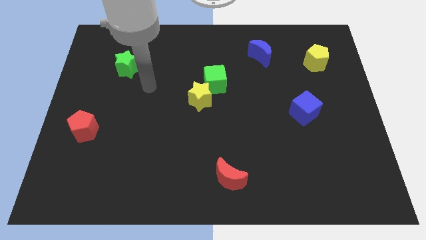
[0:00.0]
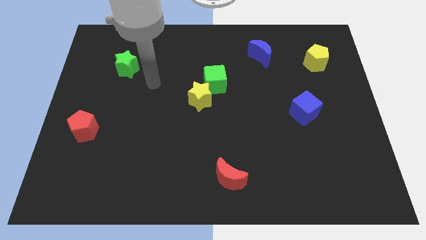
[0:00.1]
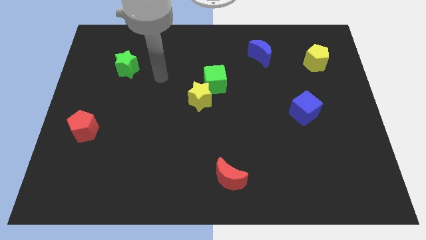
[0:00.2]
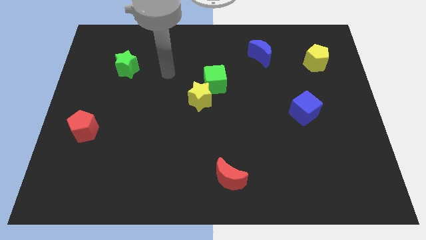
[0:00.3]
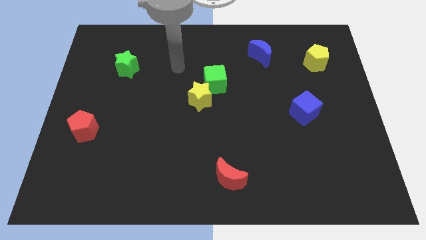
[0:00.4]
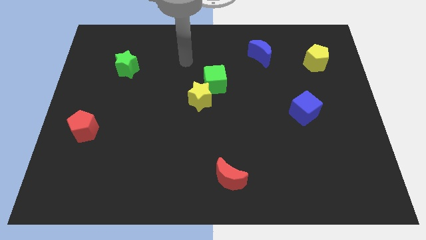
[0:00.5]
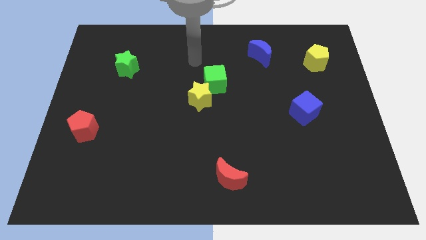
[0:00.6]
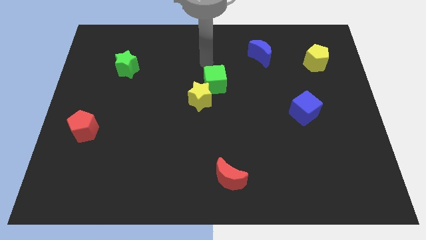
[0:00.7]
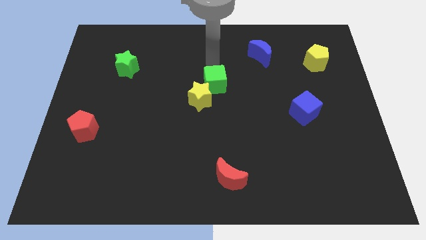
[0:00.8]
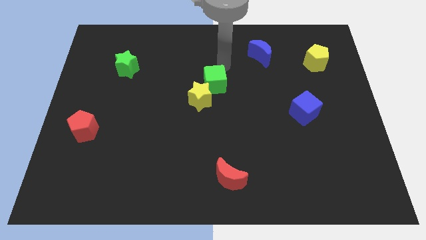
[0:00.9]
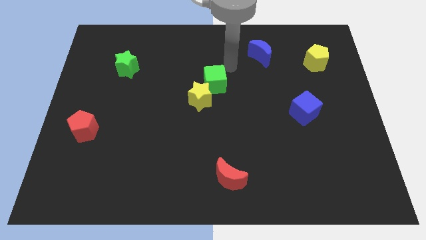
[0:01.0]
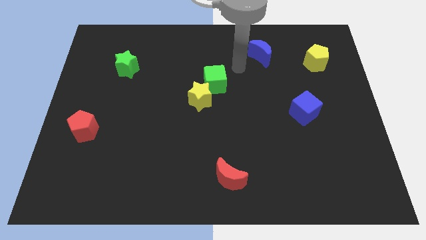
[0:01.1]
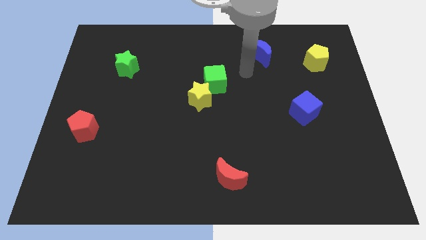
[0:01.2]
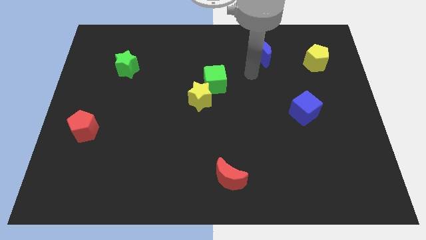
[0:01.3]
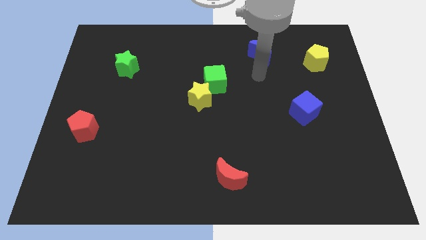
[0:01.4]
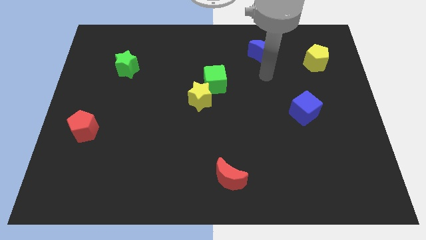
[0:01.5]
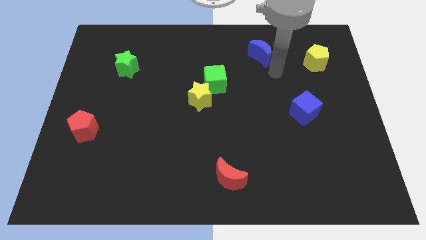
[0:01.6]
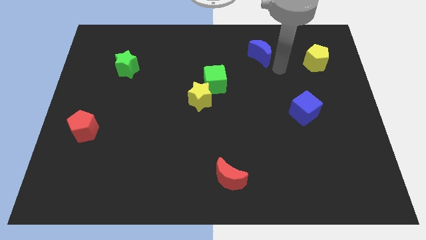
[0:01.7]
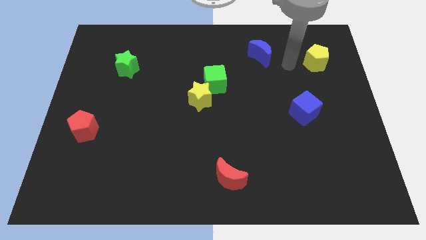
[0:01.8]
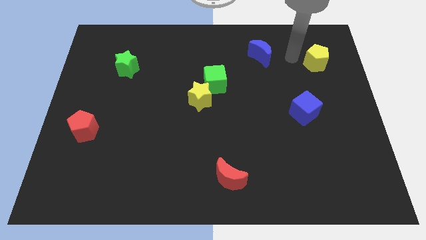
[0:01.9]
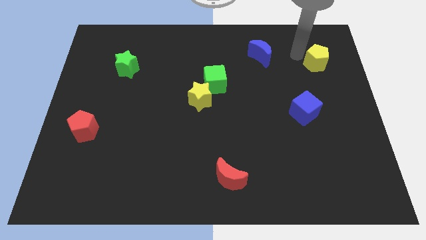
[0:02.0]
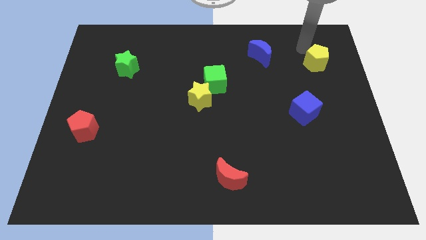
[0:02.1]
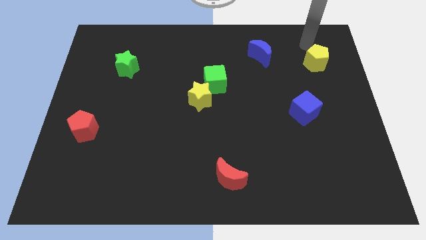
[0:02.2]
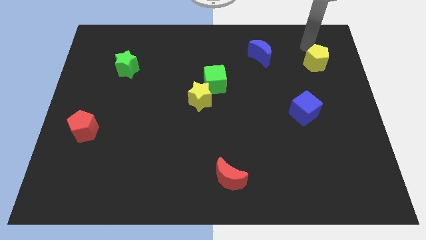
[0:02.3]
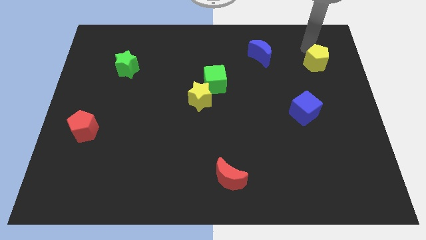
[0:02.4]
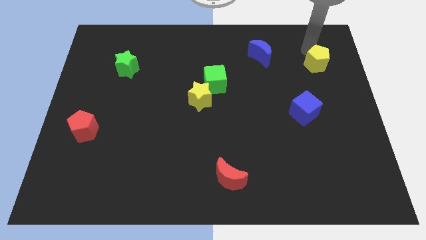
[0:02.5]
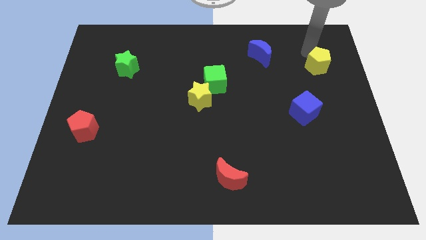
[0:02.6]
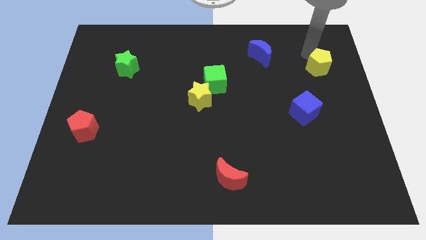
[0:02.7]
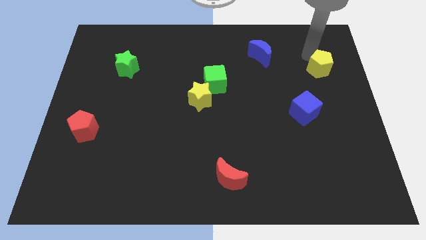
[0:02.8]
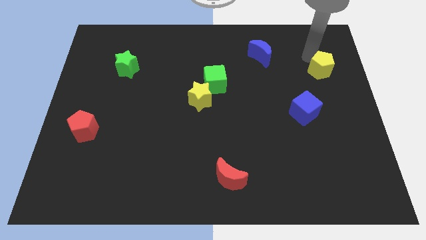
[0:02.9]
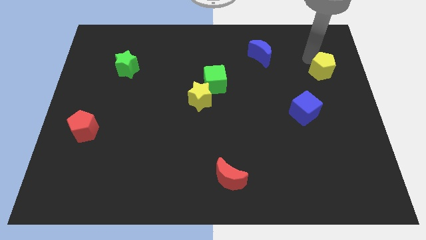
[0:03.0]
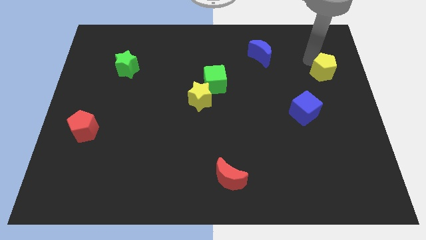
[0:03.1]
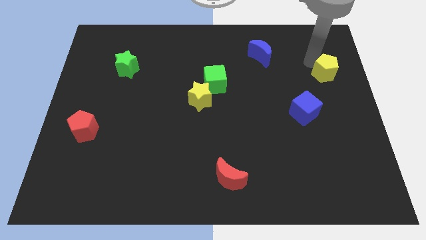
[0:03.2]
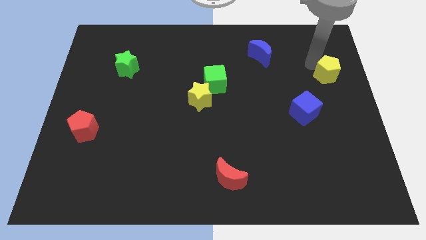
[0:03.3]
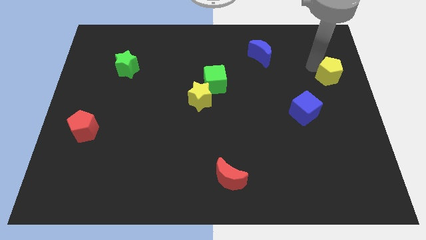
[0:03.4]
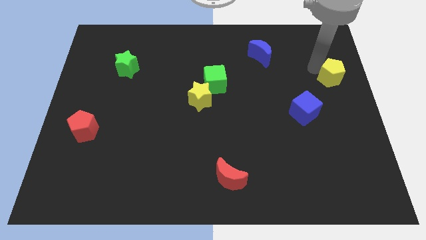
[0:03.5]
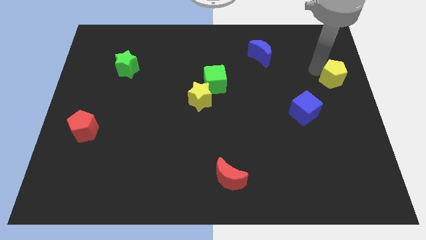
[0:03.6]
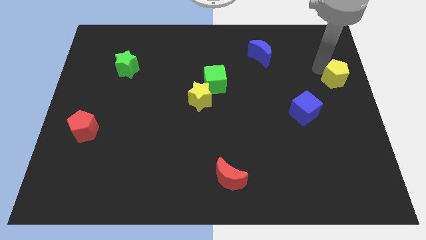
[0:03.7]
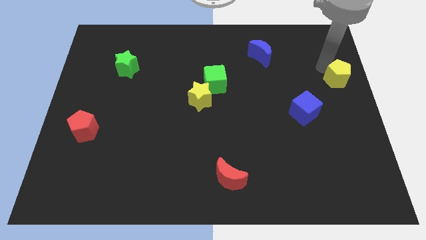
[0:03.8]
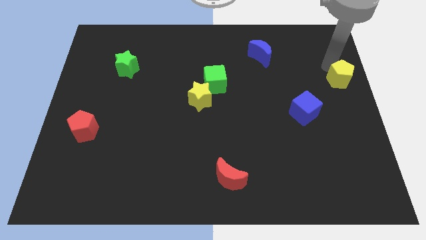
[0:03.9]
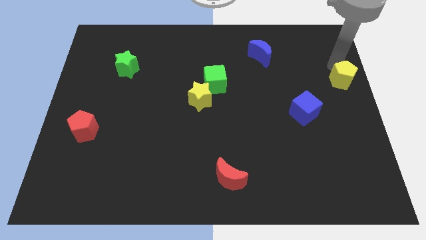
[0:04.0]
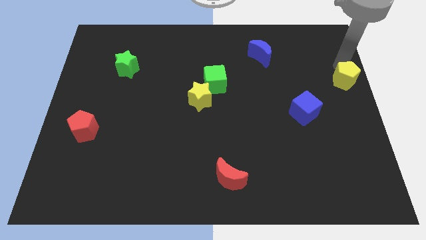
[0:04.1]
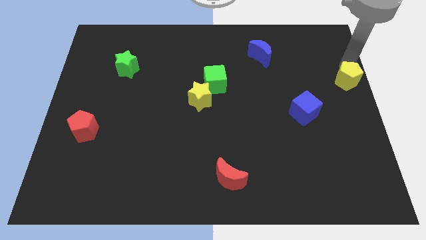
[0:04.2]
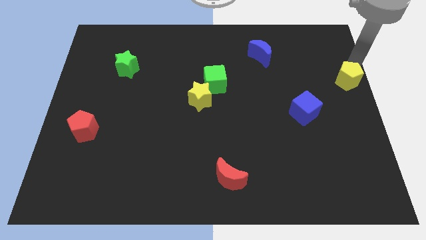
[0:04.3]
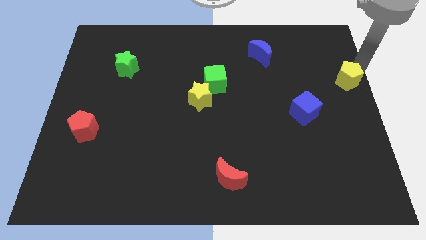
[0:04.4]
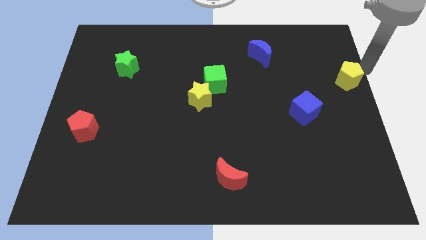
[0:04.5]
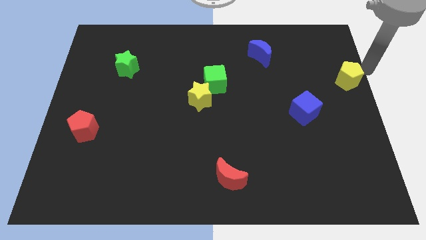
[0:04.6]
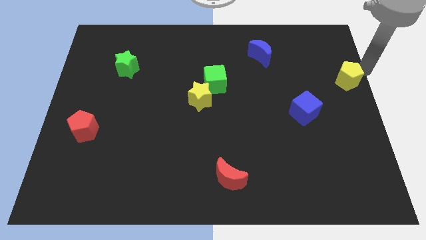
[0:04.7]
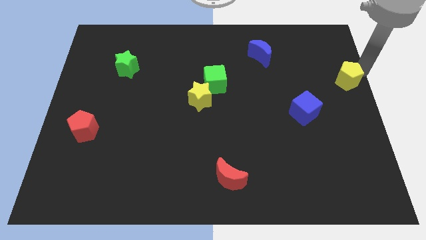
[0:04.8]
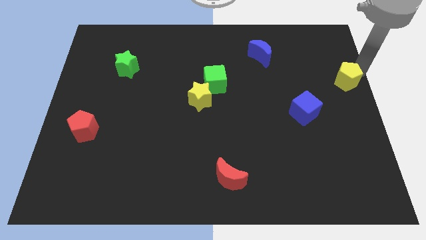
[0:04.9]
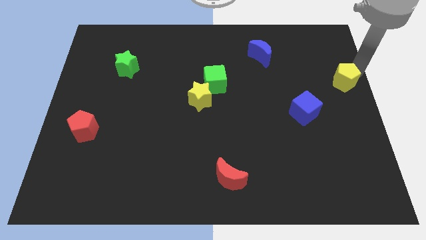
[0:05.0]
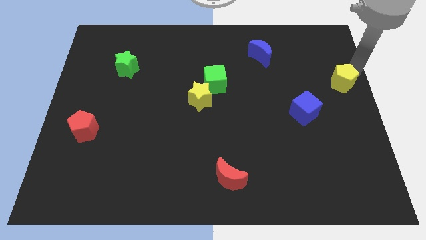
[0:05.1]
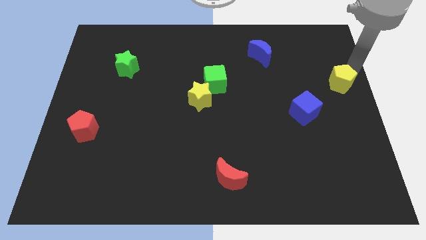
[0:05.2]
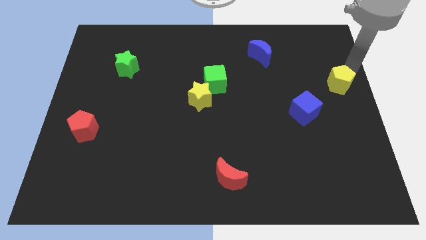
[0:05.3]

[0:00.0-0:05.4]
slide the yellow pentagon downwards somewhat

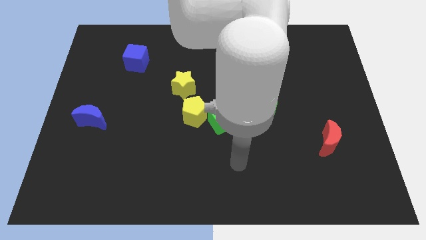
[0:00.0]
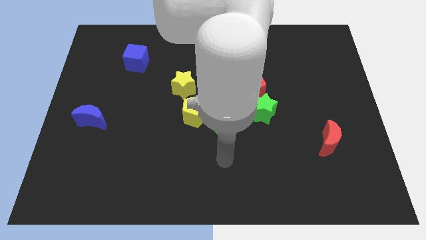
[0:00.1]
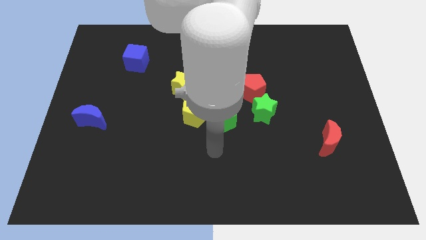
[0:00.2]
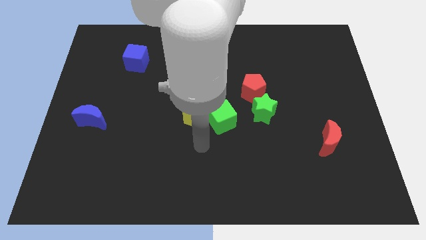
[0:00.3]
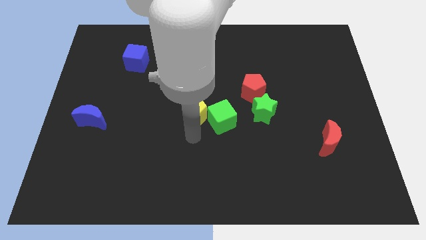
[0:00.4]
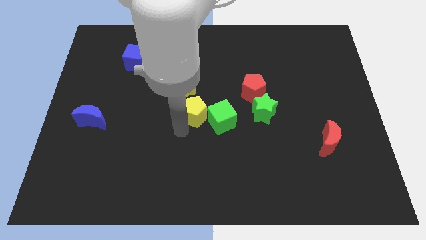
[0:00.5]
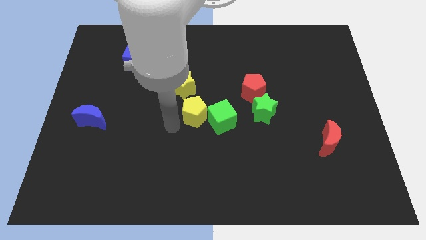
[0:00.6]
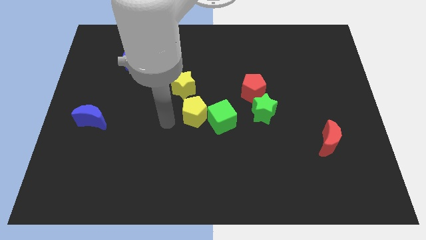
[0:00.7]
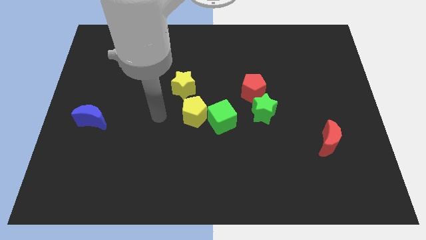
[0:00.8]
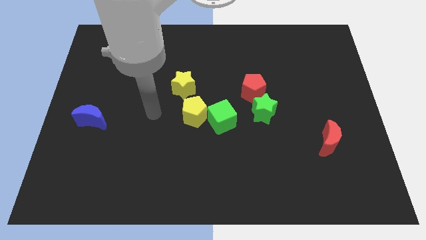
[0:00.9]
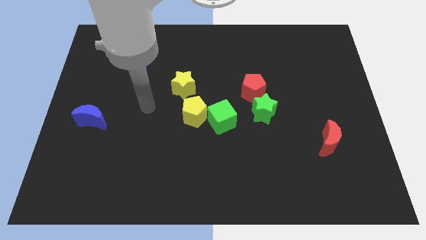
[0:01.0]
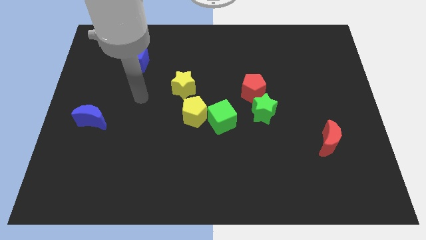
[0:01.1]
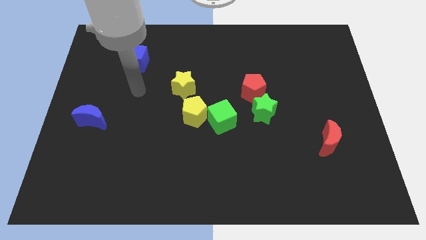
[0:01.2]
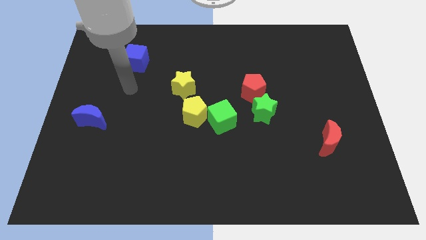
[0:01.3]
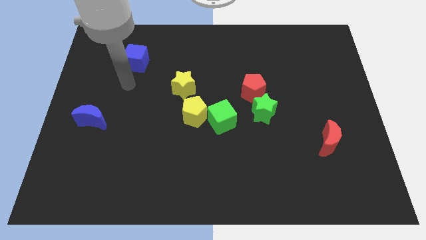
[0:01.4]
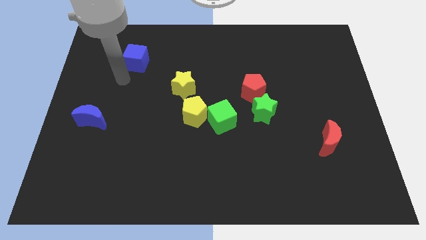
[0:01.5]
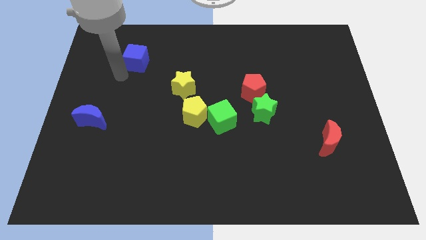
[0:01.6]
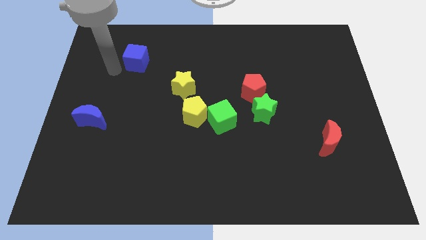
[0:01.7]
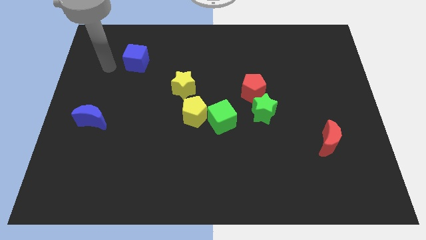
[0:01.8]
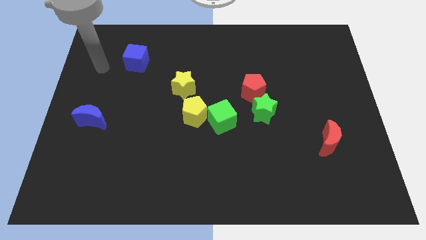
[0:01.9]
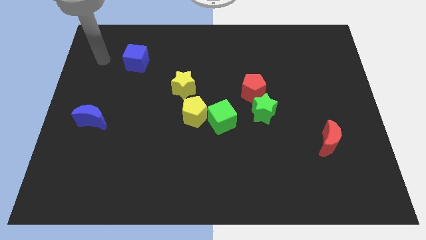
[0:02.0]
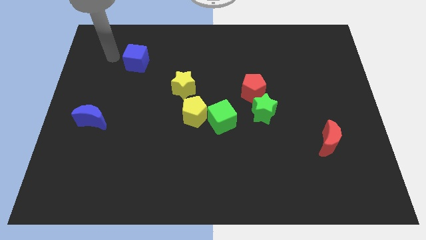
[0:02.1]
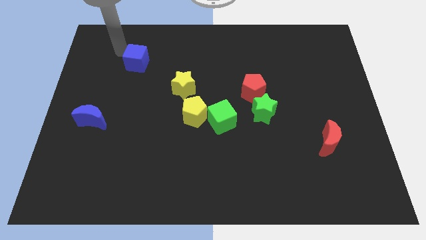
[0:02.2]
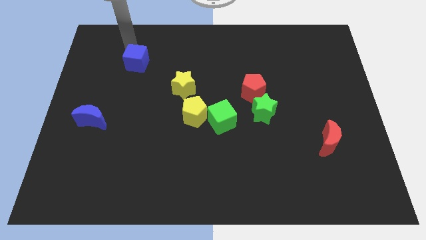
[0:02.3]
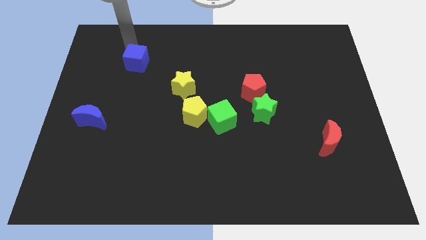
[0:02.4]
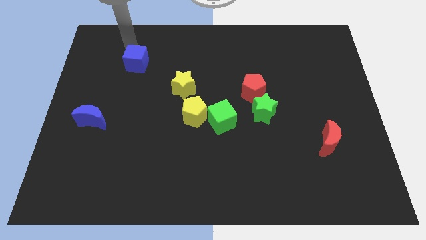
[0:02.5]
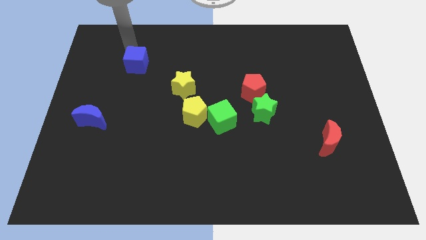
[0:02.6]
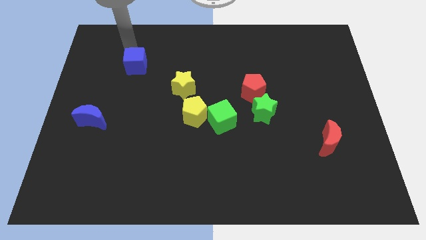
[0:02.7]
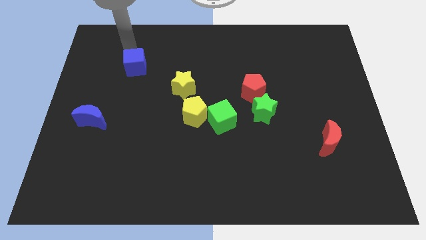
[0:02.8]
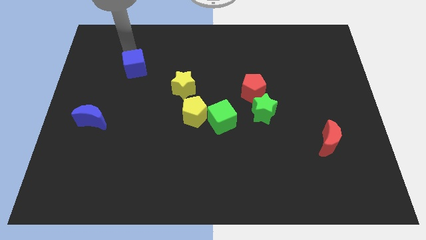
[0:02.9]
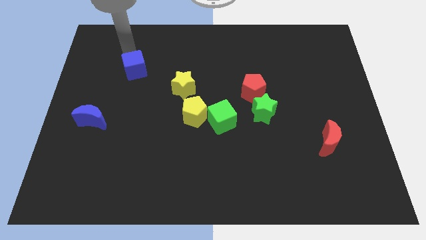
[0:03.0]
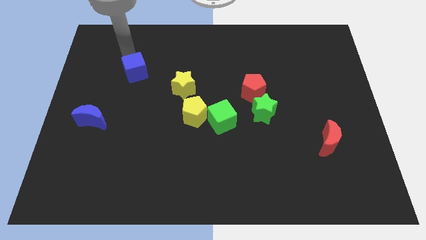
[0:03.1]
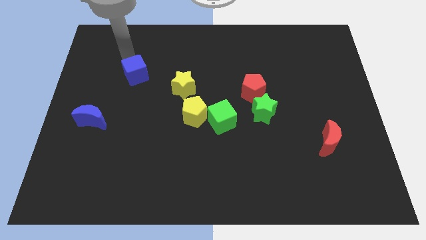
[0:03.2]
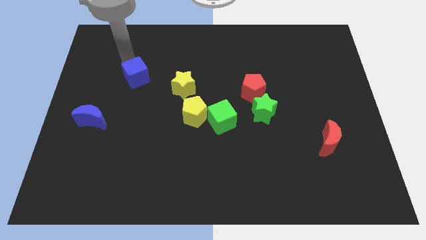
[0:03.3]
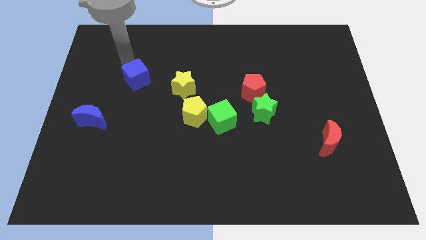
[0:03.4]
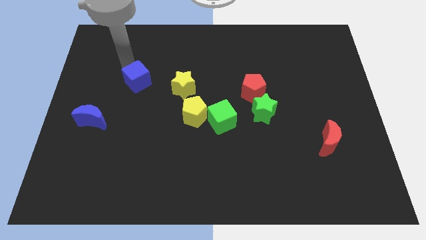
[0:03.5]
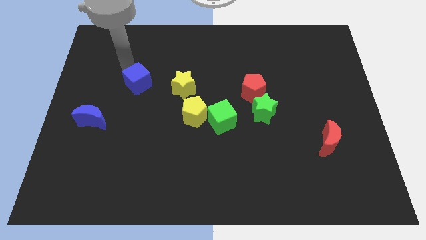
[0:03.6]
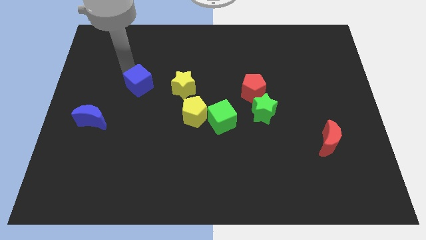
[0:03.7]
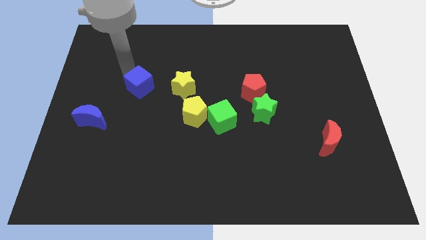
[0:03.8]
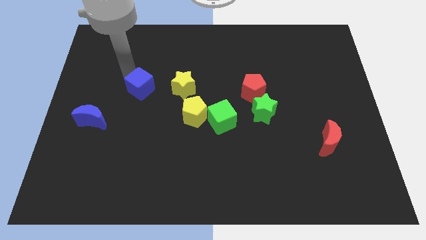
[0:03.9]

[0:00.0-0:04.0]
slide the blue cube down and then to the right a bit
